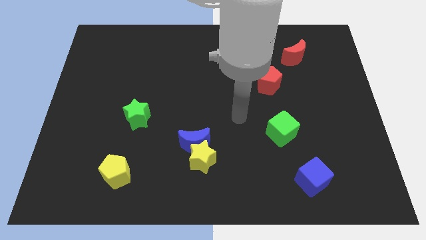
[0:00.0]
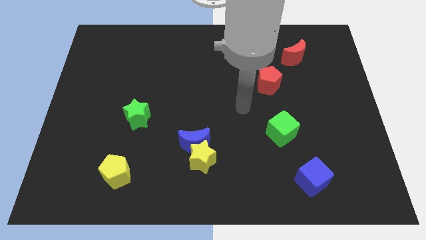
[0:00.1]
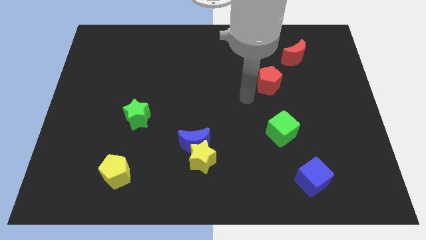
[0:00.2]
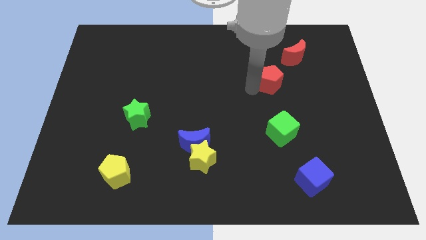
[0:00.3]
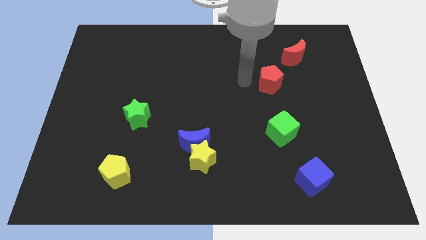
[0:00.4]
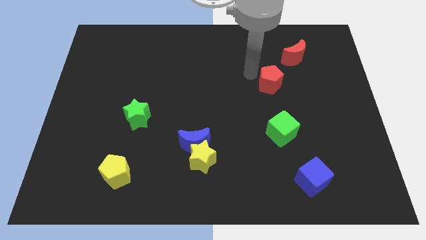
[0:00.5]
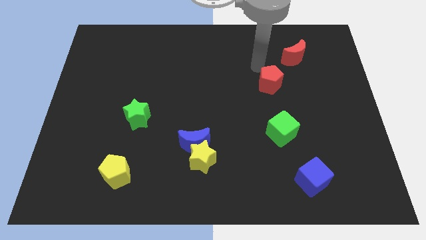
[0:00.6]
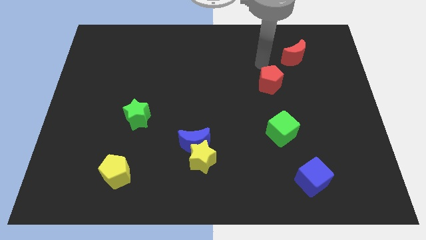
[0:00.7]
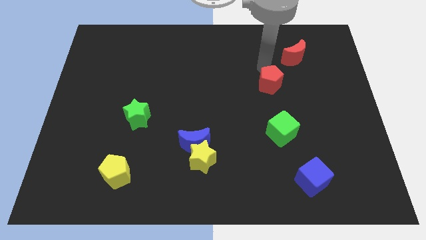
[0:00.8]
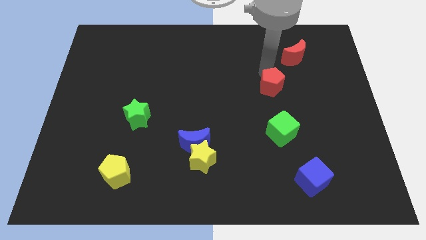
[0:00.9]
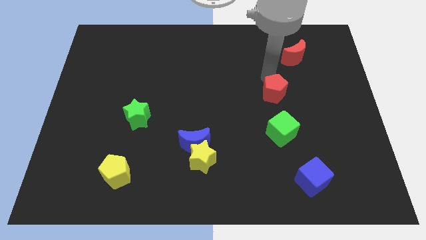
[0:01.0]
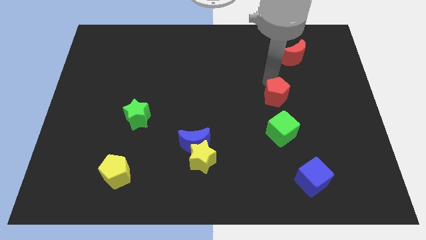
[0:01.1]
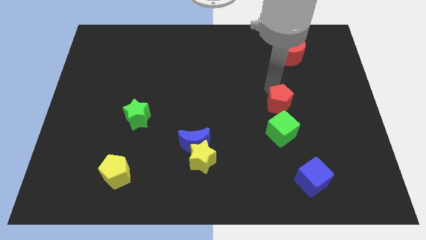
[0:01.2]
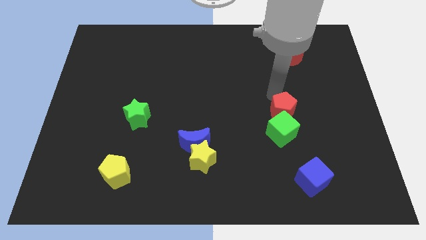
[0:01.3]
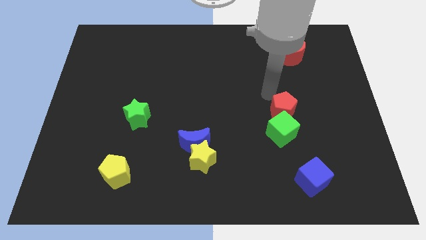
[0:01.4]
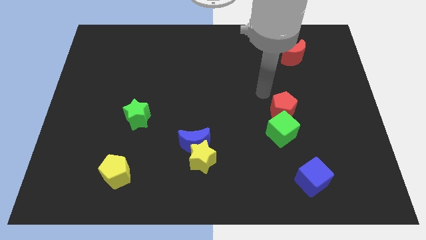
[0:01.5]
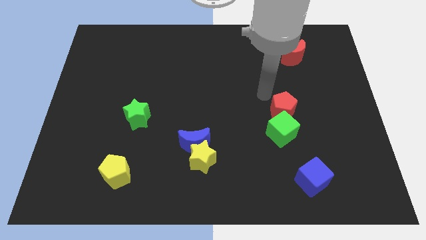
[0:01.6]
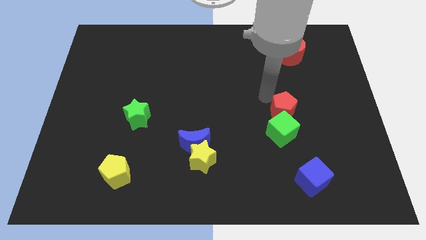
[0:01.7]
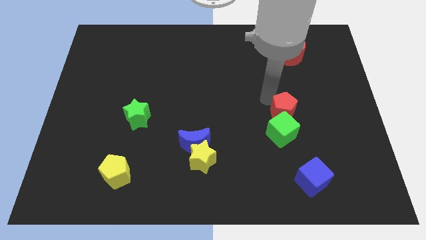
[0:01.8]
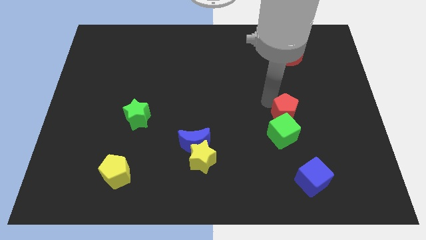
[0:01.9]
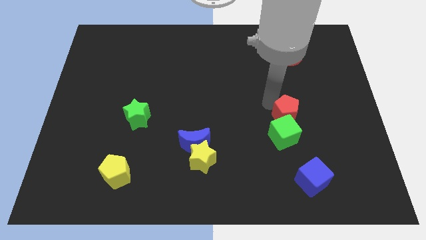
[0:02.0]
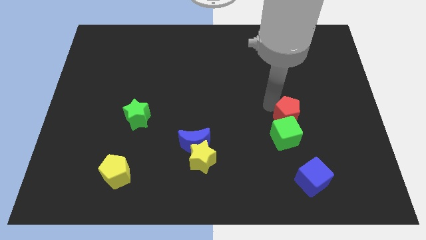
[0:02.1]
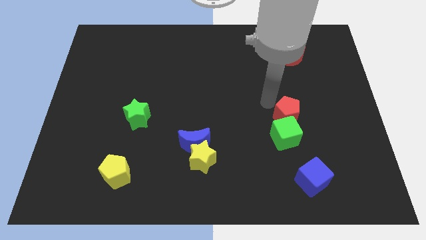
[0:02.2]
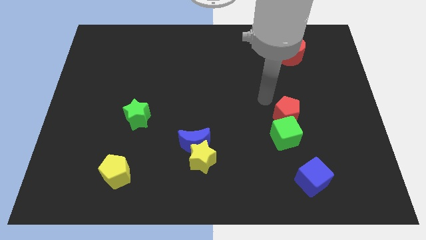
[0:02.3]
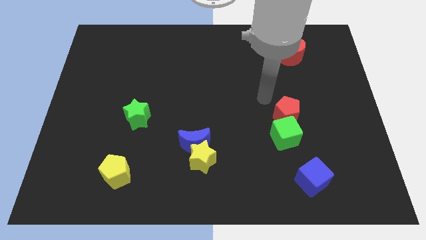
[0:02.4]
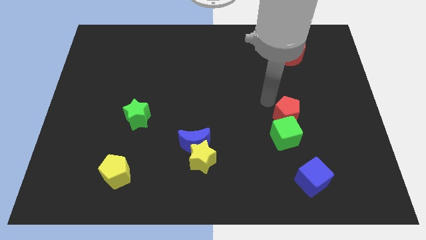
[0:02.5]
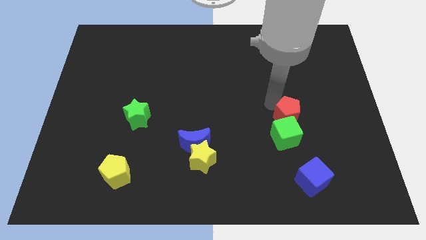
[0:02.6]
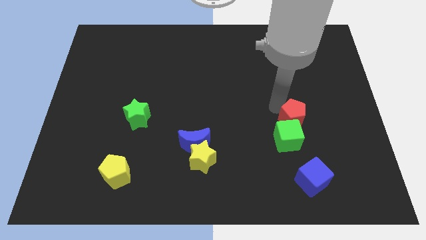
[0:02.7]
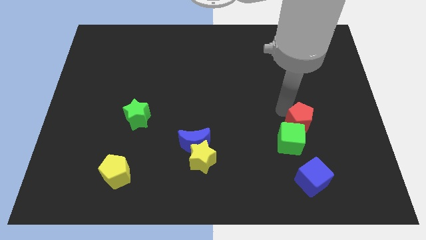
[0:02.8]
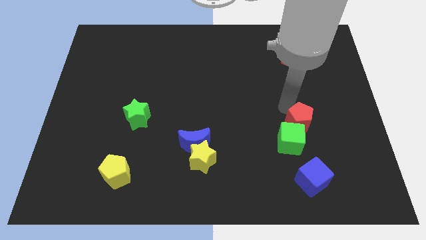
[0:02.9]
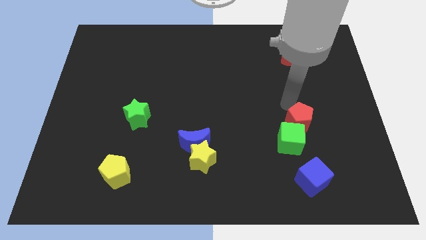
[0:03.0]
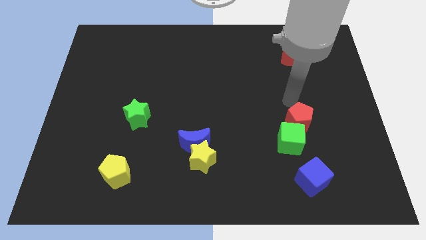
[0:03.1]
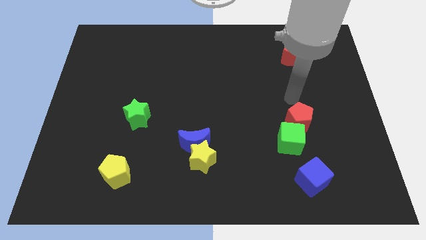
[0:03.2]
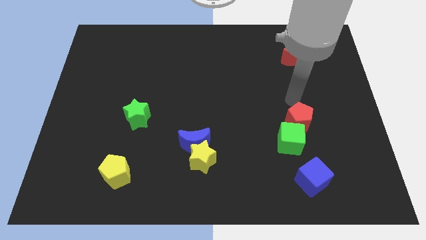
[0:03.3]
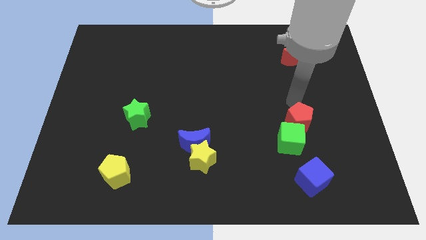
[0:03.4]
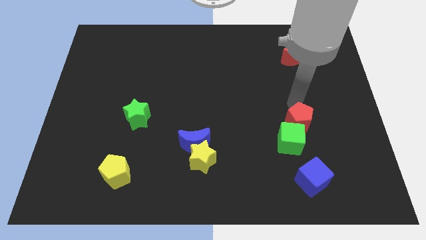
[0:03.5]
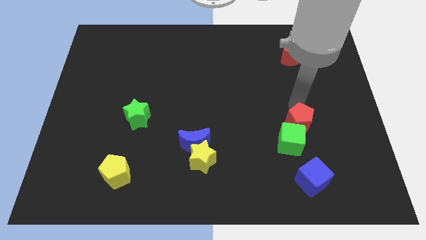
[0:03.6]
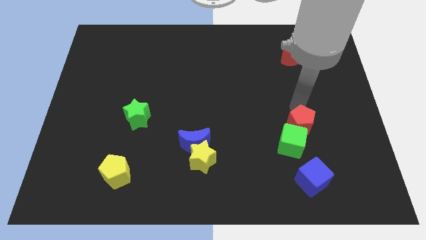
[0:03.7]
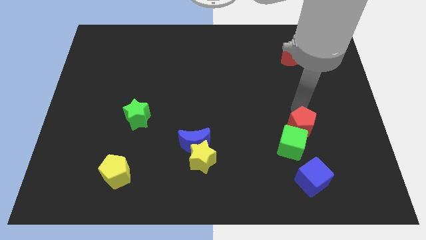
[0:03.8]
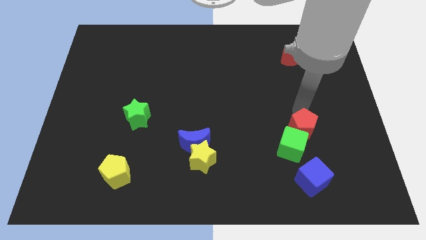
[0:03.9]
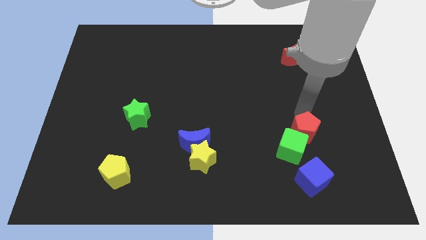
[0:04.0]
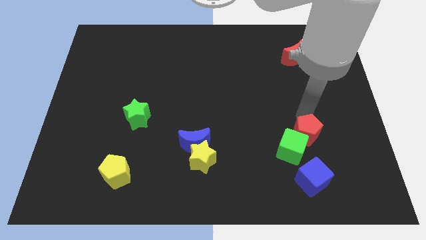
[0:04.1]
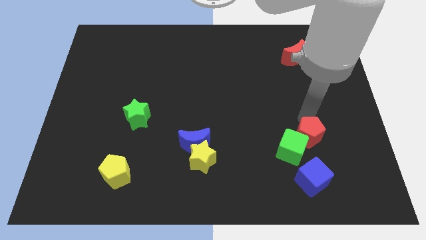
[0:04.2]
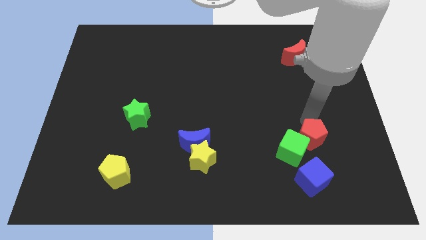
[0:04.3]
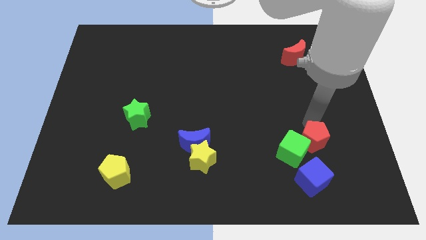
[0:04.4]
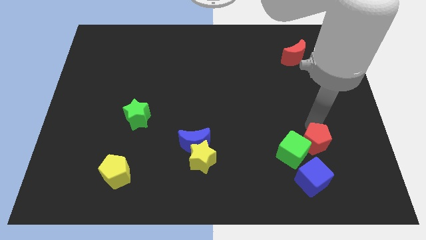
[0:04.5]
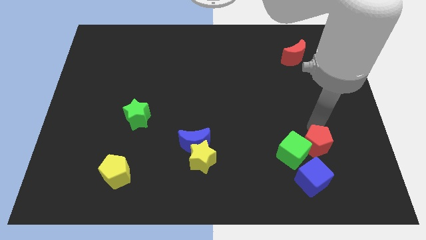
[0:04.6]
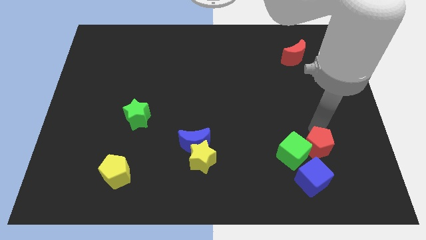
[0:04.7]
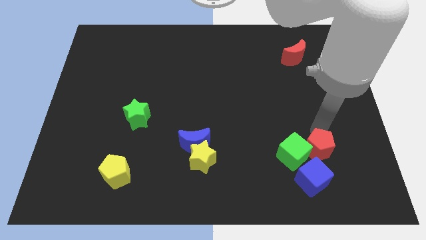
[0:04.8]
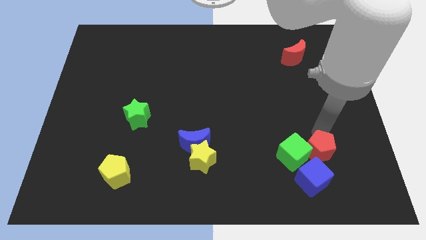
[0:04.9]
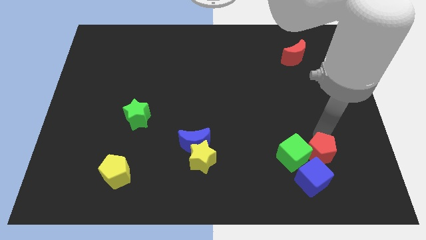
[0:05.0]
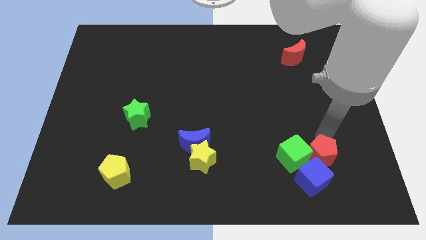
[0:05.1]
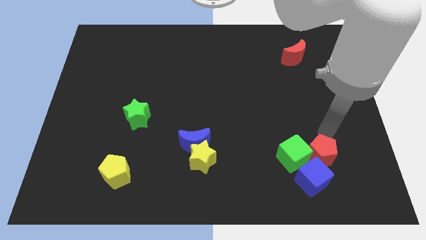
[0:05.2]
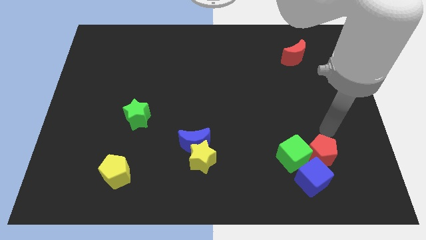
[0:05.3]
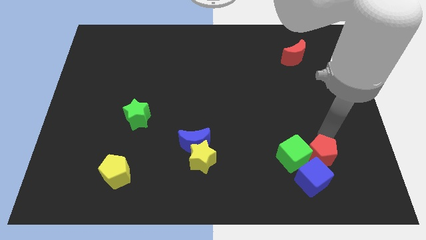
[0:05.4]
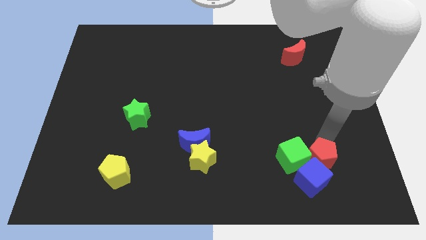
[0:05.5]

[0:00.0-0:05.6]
slide the red pentagon close to the blue cube

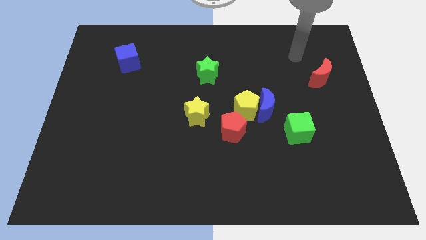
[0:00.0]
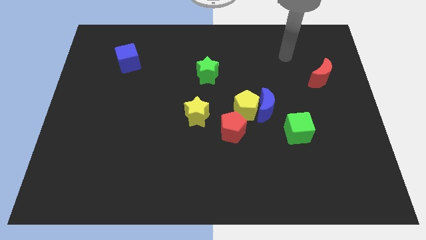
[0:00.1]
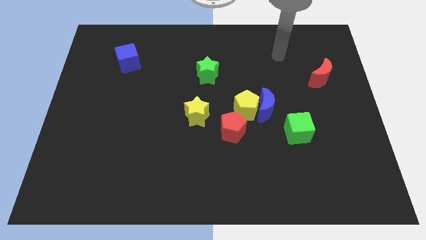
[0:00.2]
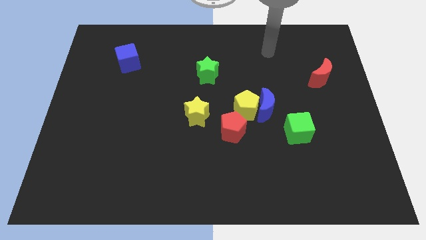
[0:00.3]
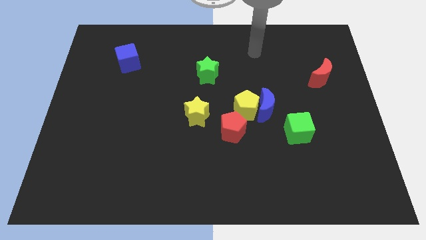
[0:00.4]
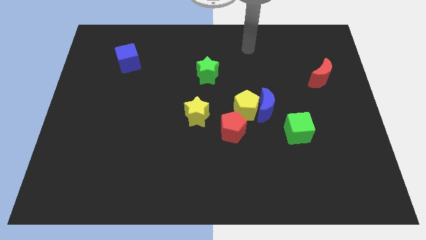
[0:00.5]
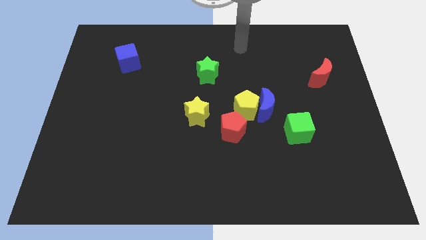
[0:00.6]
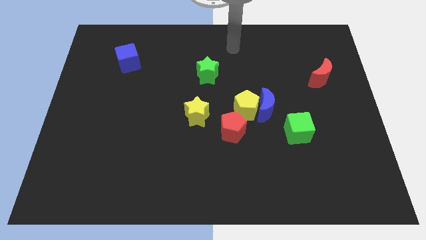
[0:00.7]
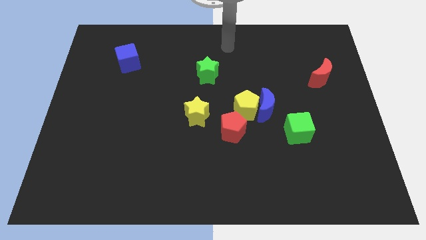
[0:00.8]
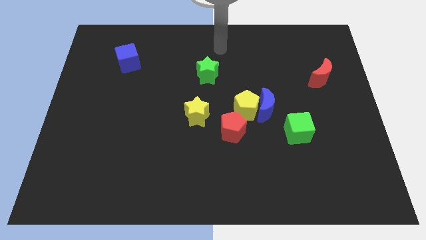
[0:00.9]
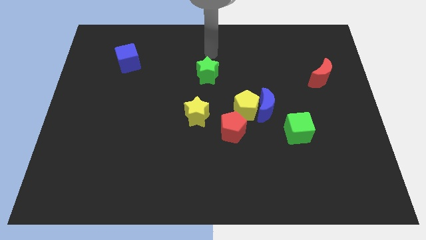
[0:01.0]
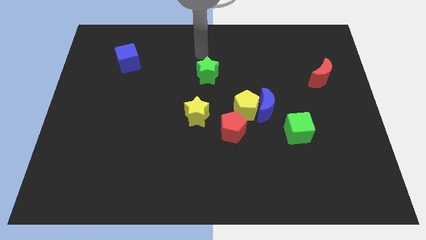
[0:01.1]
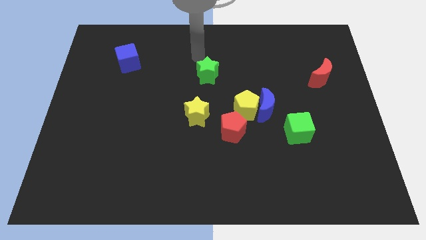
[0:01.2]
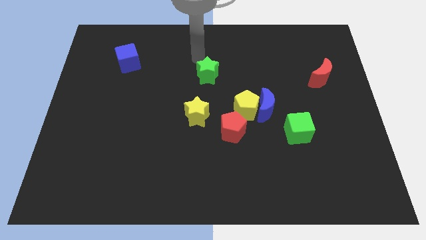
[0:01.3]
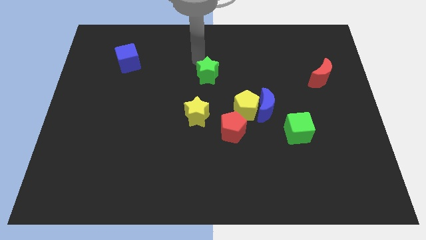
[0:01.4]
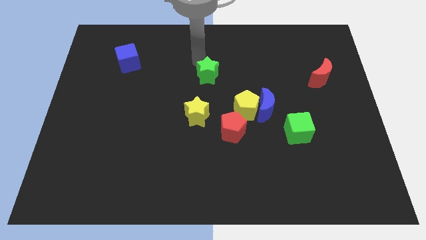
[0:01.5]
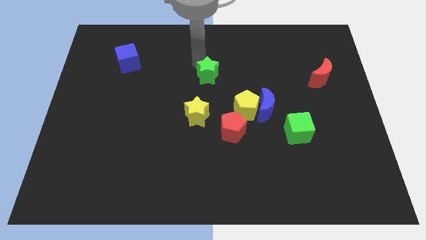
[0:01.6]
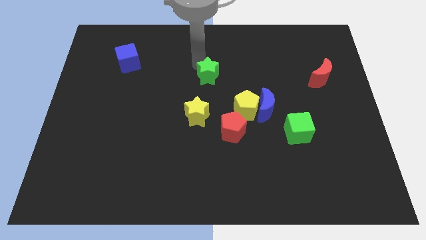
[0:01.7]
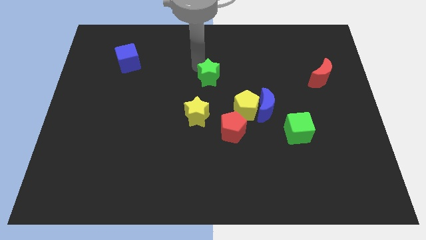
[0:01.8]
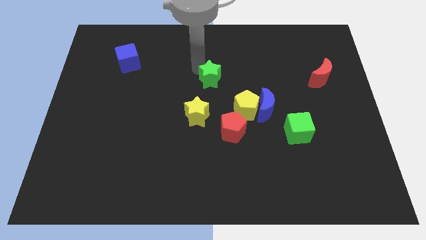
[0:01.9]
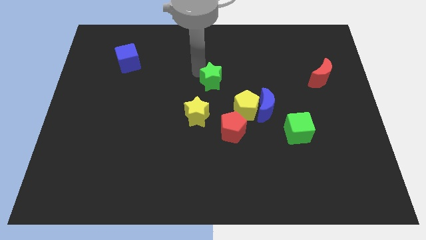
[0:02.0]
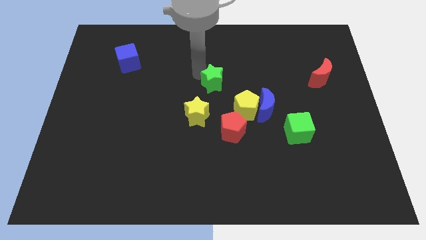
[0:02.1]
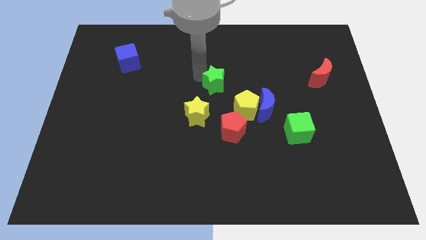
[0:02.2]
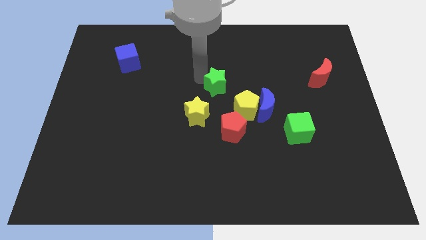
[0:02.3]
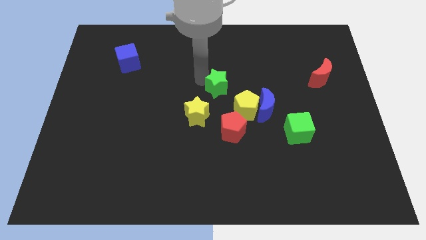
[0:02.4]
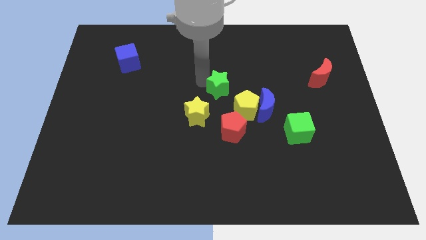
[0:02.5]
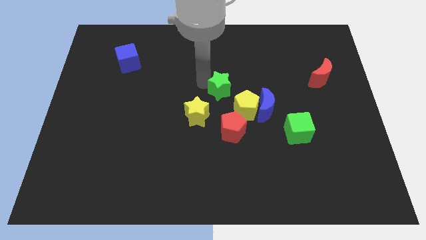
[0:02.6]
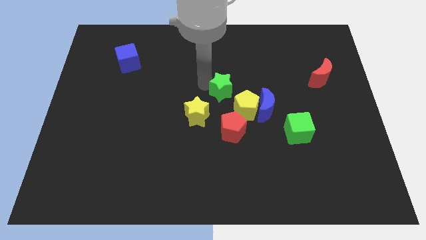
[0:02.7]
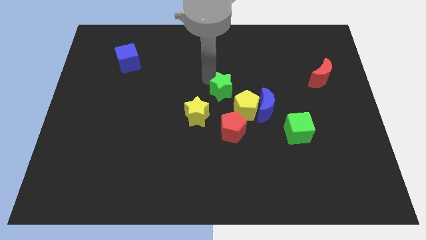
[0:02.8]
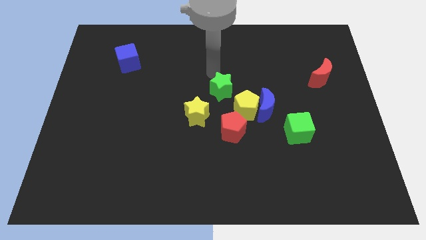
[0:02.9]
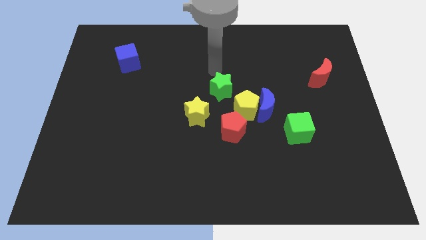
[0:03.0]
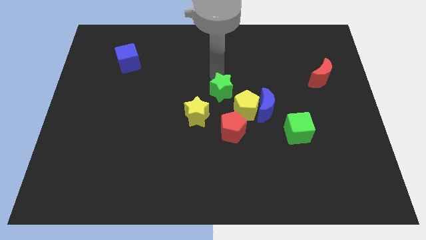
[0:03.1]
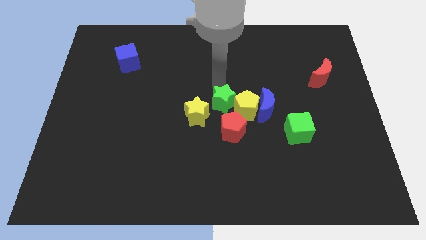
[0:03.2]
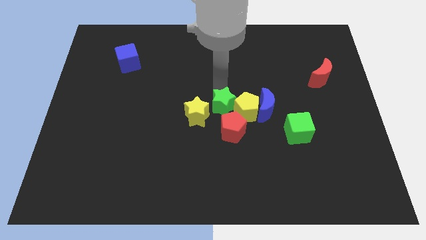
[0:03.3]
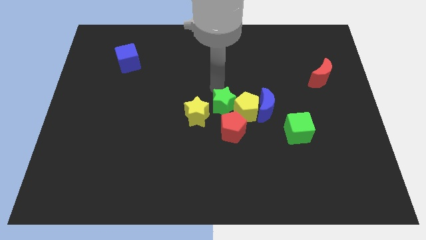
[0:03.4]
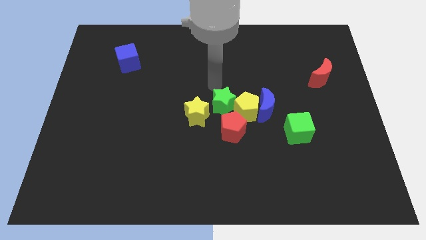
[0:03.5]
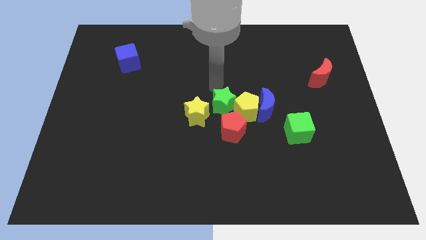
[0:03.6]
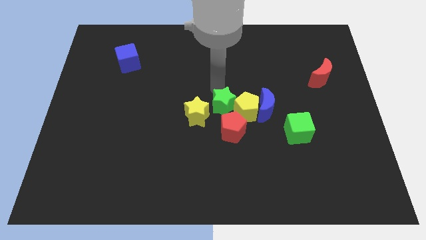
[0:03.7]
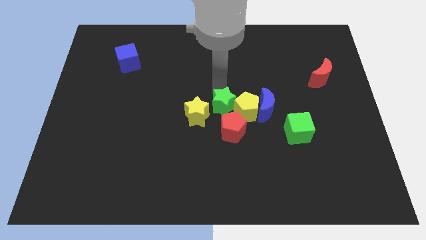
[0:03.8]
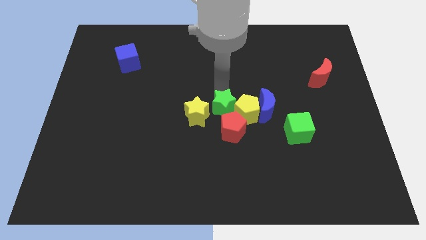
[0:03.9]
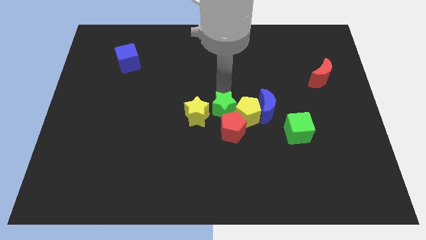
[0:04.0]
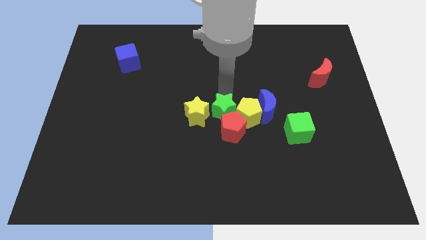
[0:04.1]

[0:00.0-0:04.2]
slide the green star to the red pentagon
